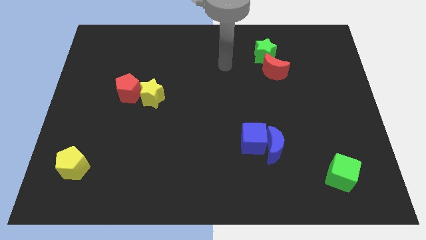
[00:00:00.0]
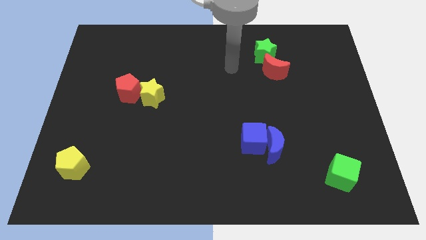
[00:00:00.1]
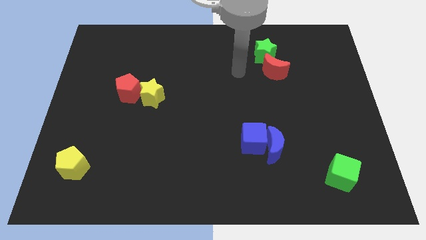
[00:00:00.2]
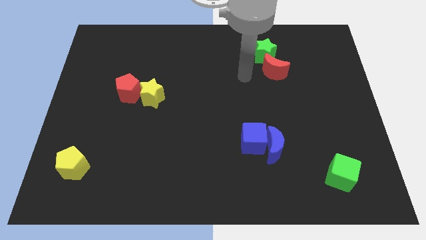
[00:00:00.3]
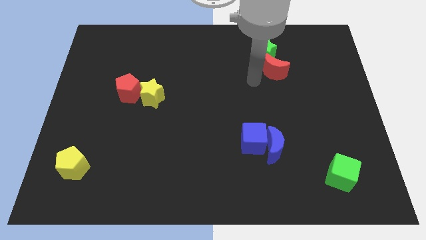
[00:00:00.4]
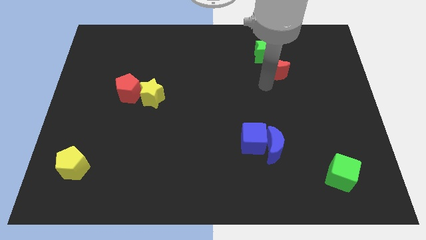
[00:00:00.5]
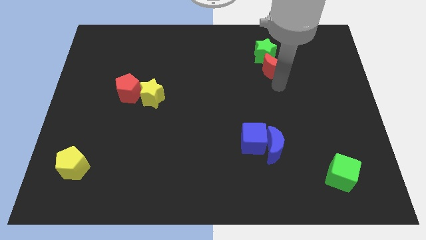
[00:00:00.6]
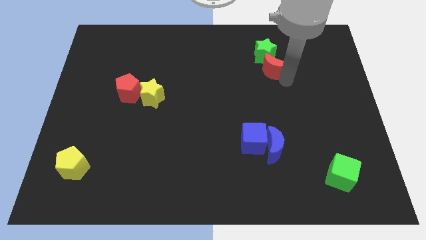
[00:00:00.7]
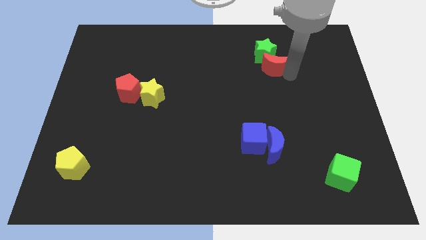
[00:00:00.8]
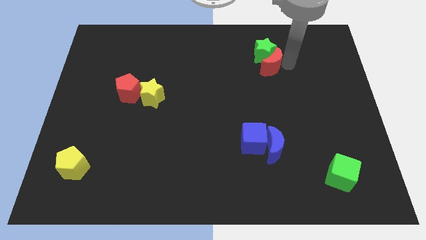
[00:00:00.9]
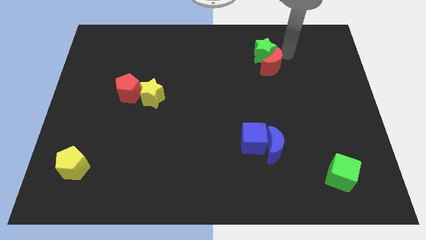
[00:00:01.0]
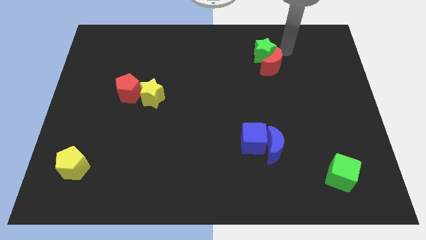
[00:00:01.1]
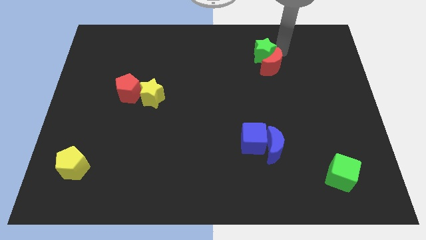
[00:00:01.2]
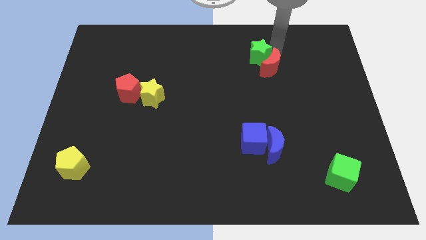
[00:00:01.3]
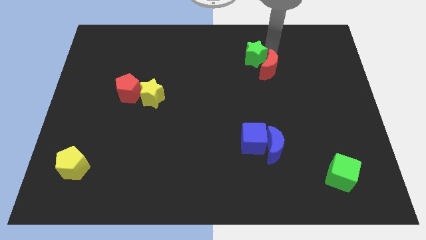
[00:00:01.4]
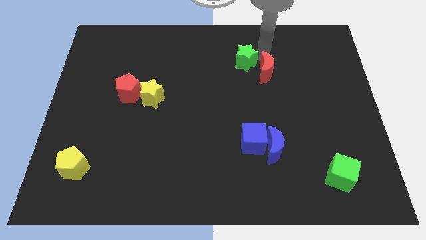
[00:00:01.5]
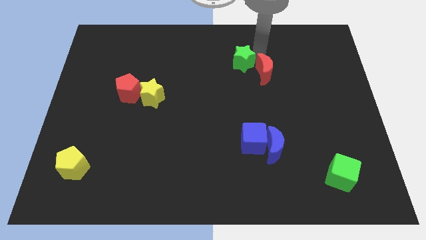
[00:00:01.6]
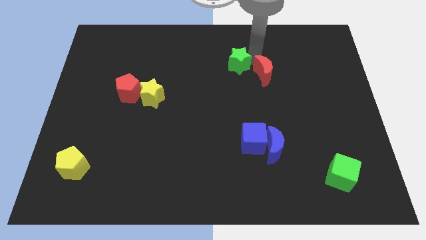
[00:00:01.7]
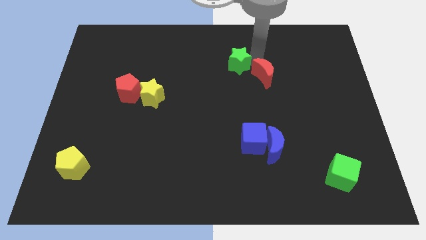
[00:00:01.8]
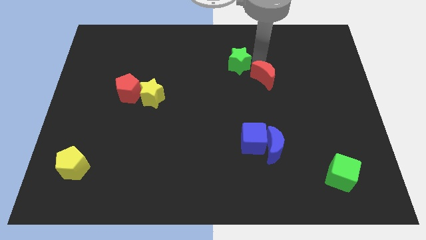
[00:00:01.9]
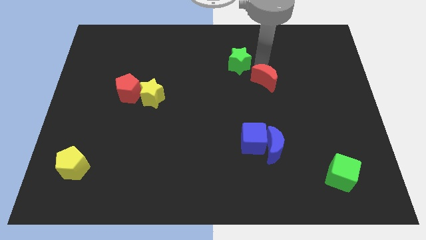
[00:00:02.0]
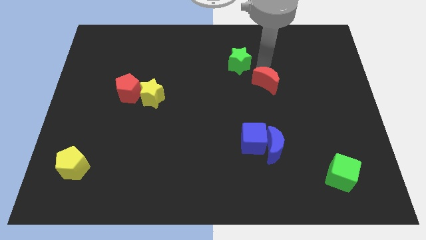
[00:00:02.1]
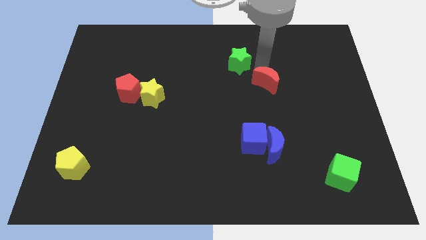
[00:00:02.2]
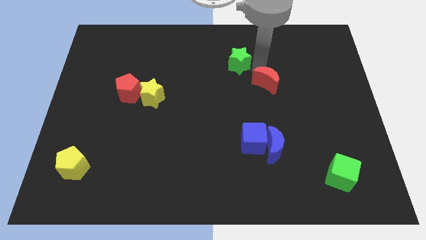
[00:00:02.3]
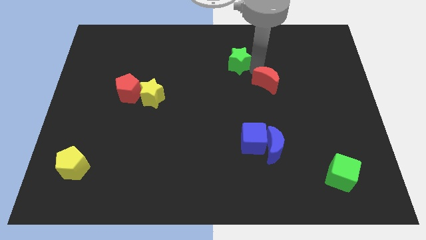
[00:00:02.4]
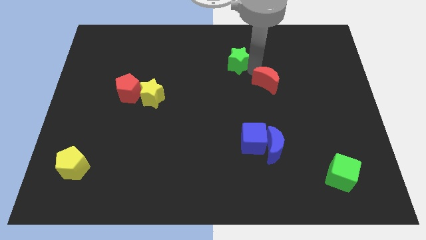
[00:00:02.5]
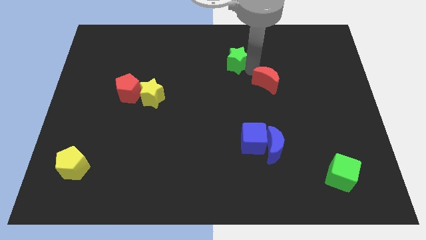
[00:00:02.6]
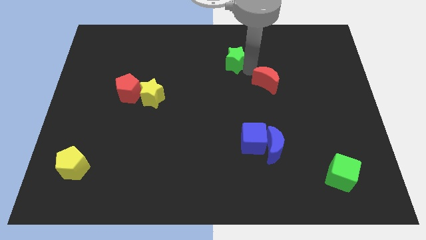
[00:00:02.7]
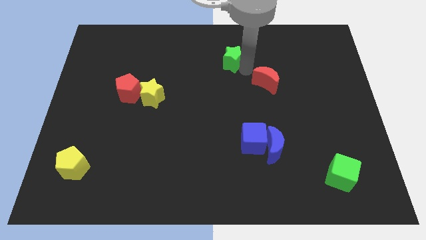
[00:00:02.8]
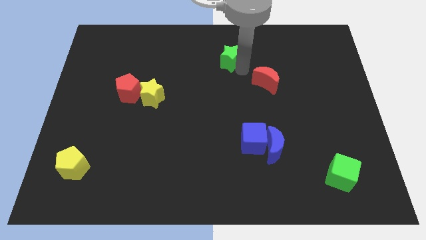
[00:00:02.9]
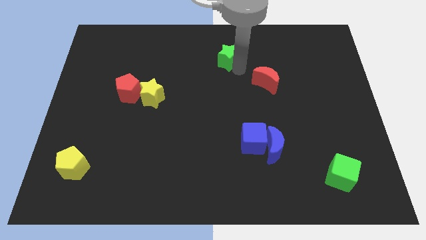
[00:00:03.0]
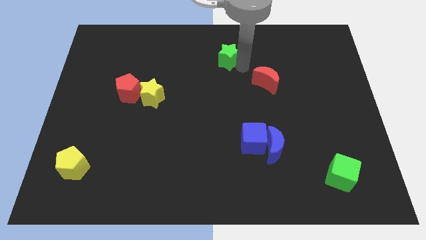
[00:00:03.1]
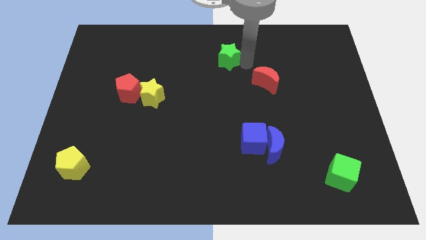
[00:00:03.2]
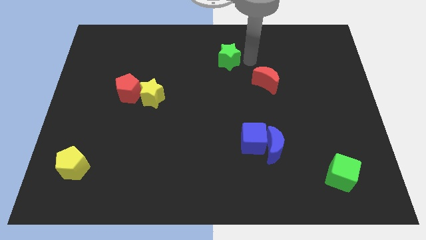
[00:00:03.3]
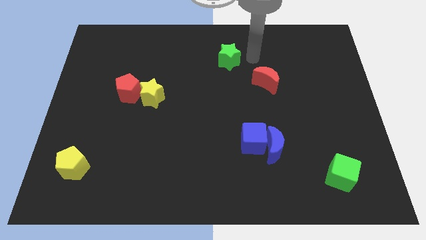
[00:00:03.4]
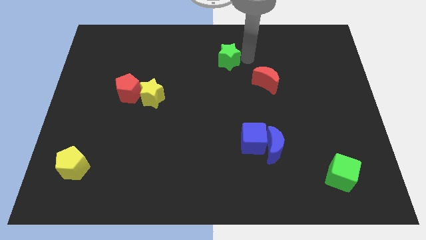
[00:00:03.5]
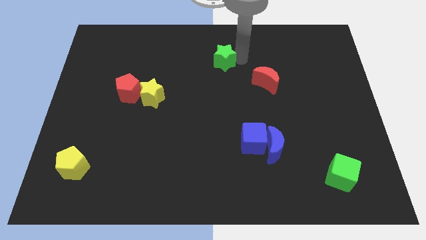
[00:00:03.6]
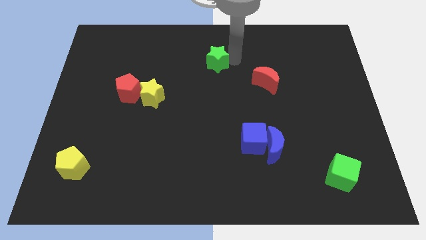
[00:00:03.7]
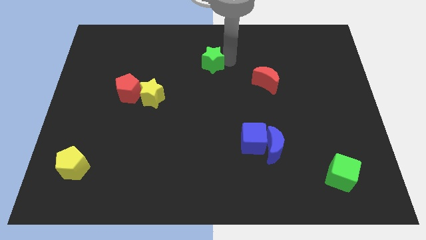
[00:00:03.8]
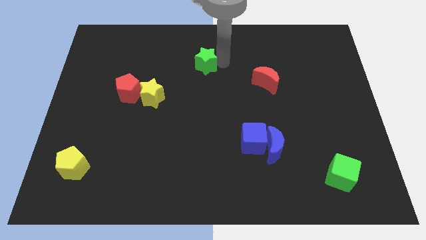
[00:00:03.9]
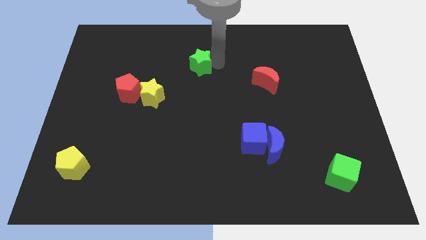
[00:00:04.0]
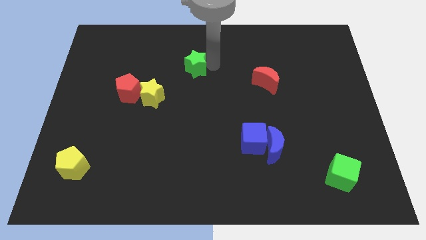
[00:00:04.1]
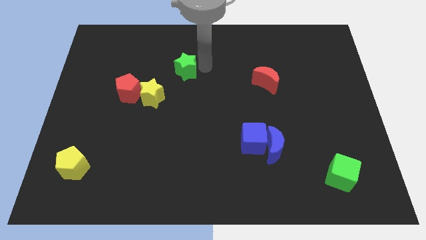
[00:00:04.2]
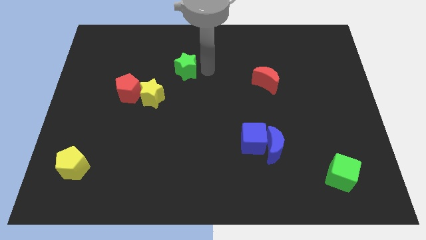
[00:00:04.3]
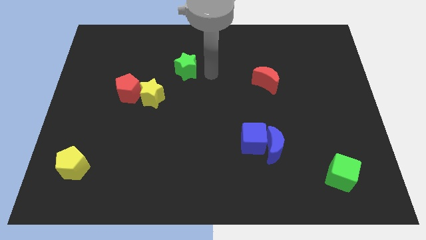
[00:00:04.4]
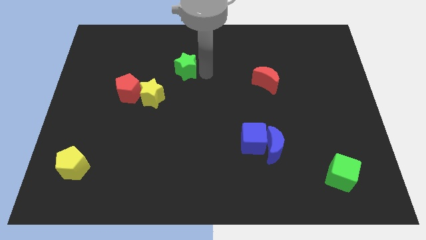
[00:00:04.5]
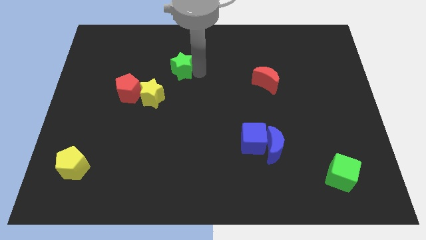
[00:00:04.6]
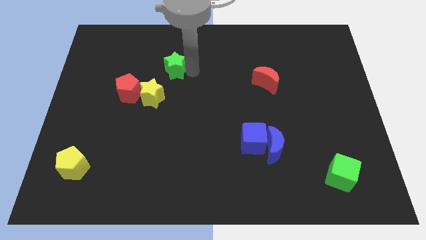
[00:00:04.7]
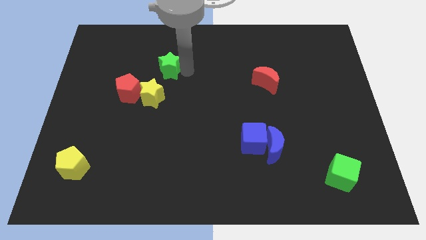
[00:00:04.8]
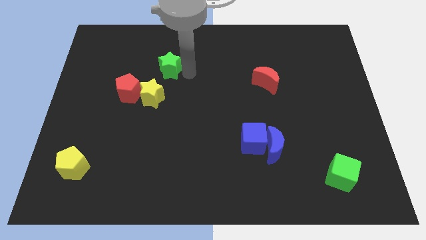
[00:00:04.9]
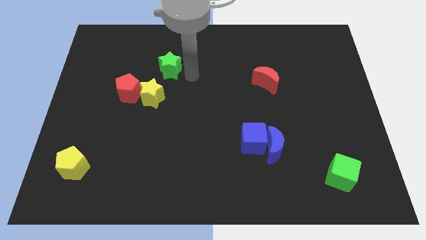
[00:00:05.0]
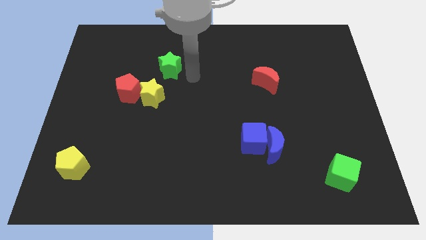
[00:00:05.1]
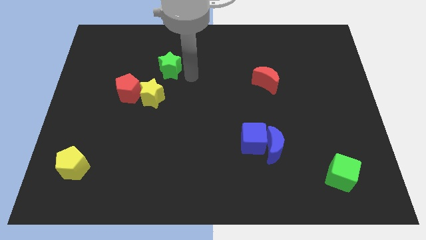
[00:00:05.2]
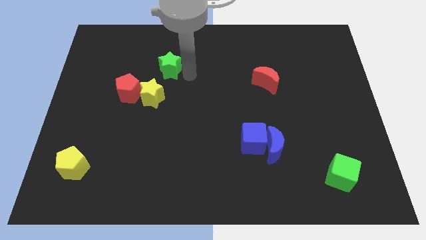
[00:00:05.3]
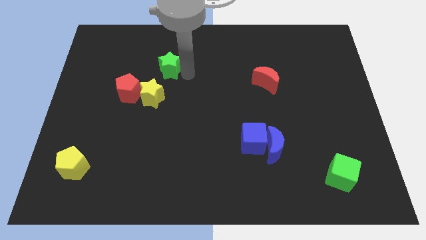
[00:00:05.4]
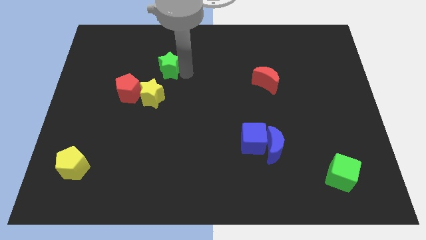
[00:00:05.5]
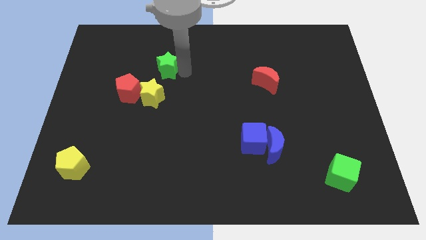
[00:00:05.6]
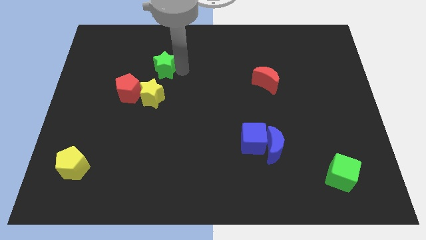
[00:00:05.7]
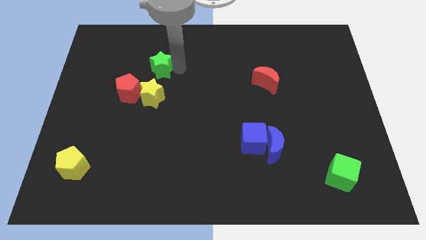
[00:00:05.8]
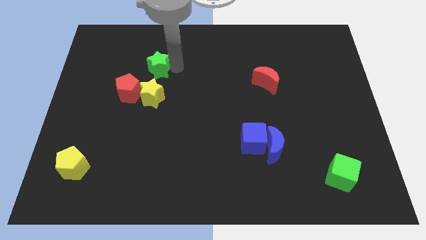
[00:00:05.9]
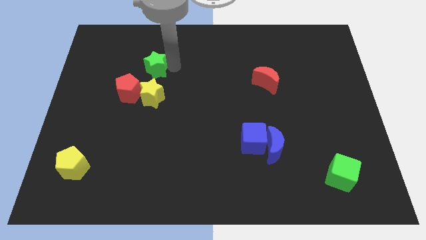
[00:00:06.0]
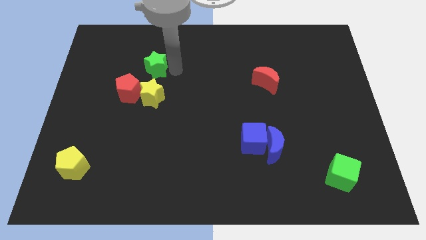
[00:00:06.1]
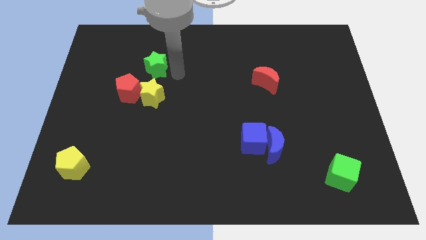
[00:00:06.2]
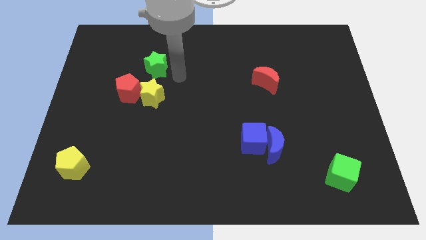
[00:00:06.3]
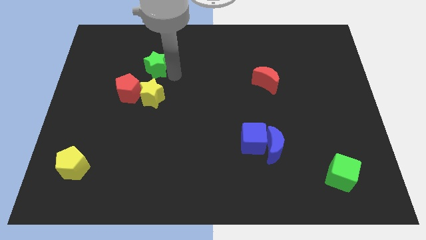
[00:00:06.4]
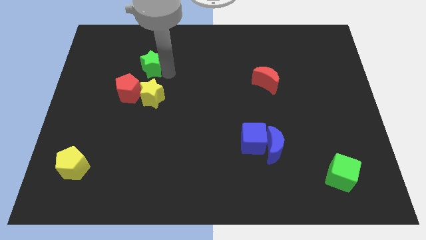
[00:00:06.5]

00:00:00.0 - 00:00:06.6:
move the green star to the top side of the red pentagon
